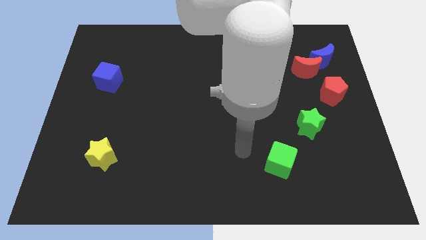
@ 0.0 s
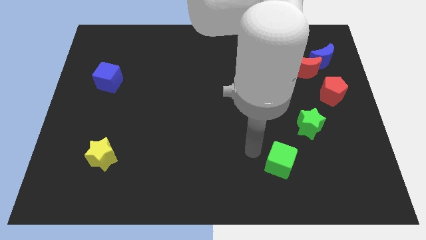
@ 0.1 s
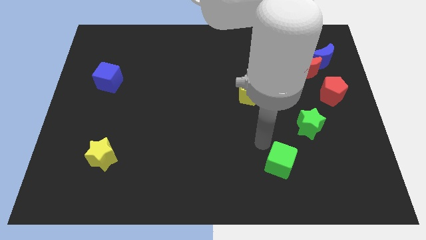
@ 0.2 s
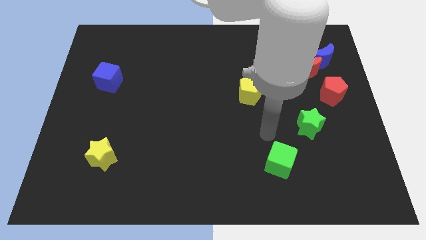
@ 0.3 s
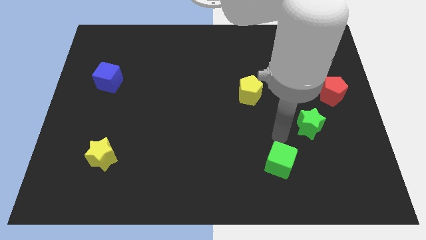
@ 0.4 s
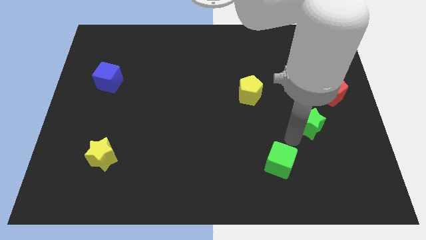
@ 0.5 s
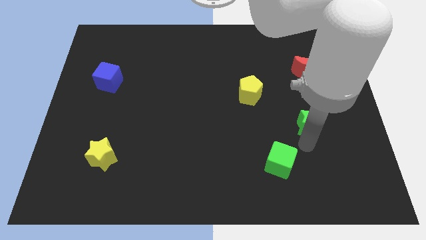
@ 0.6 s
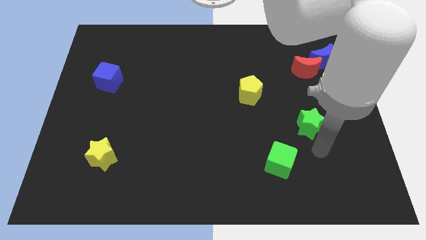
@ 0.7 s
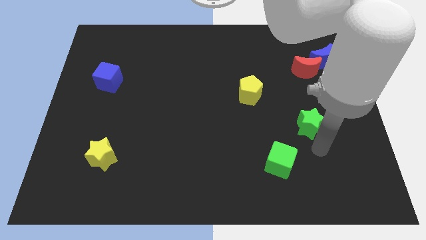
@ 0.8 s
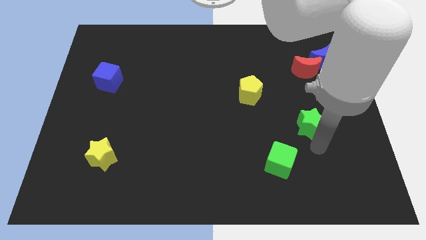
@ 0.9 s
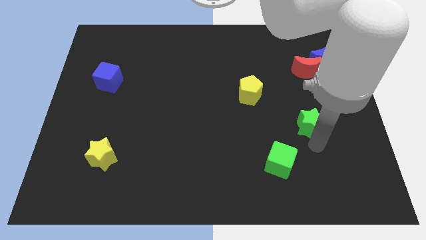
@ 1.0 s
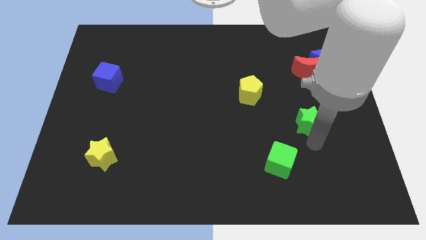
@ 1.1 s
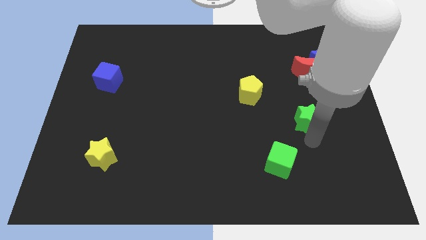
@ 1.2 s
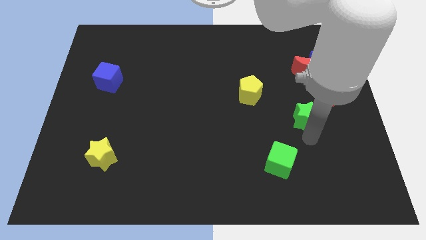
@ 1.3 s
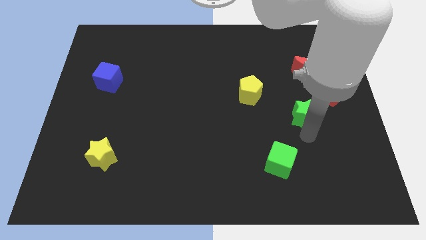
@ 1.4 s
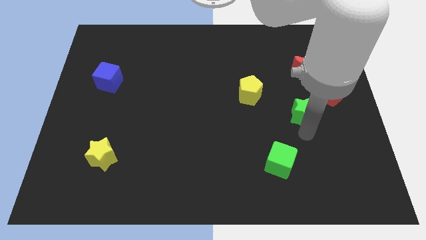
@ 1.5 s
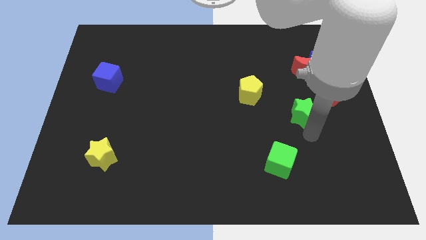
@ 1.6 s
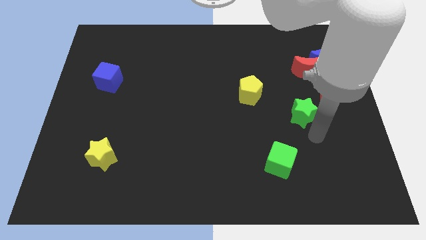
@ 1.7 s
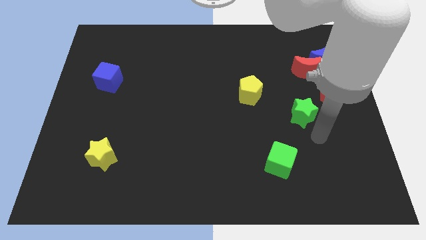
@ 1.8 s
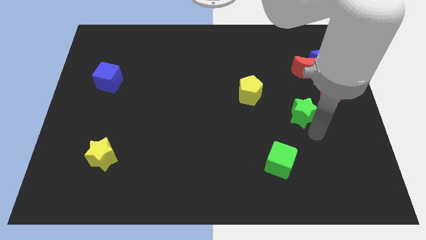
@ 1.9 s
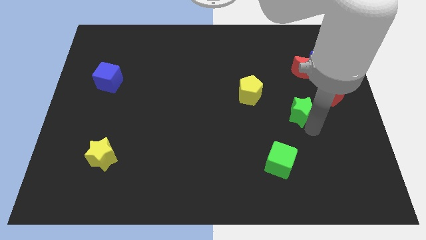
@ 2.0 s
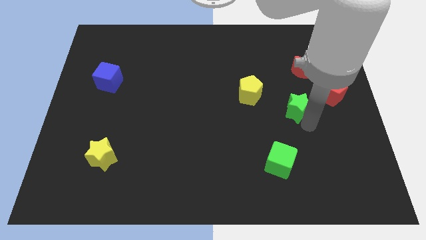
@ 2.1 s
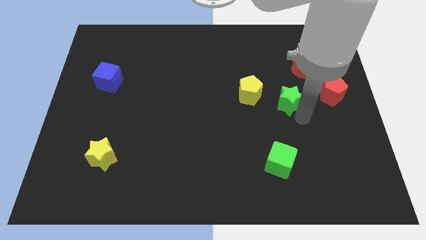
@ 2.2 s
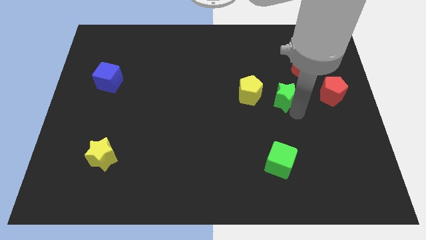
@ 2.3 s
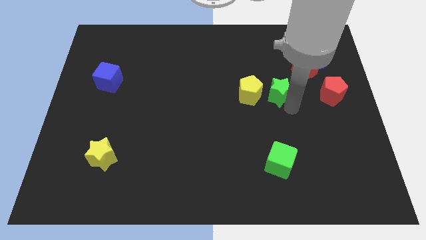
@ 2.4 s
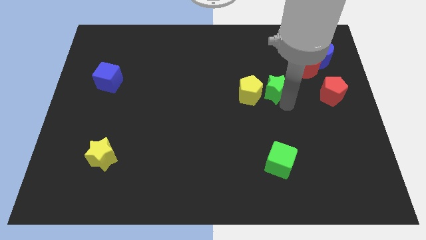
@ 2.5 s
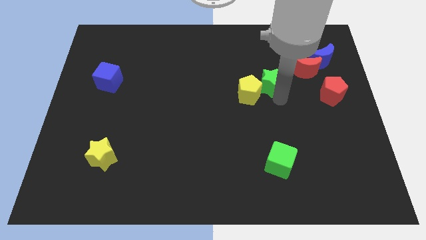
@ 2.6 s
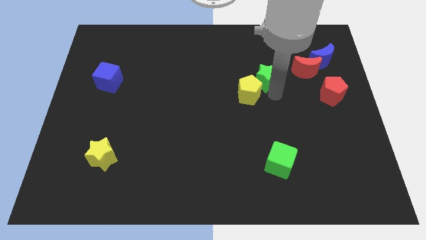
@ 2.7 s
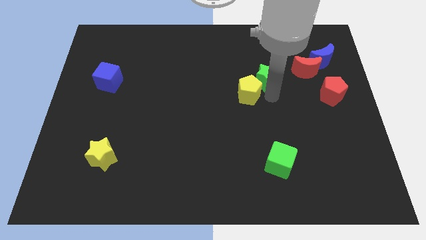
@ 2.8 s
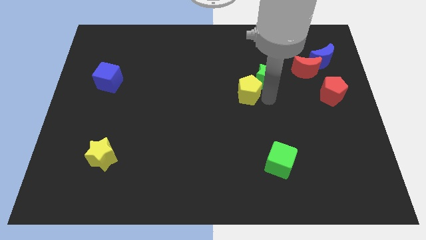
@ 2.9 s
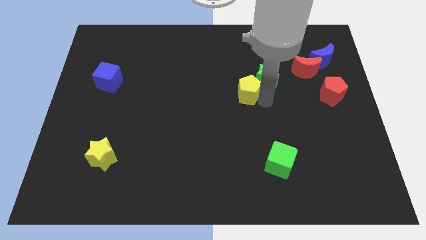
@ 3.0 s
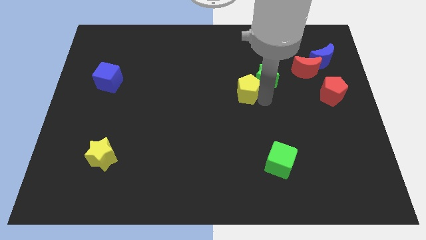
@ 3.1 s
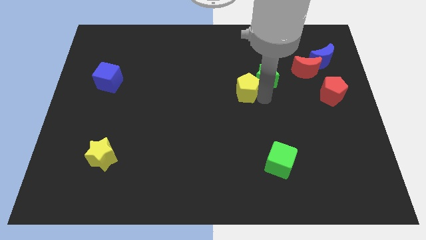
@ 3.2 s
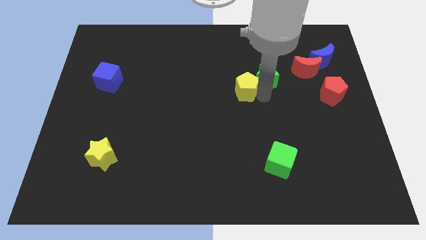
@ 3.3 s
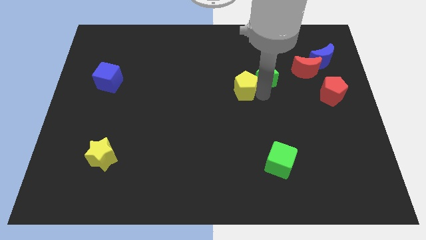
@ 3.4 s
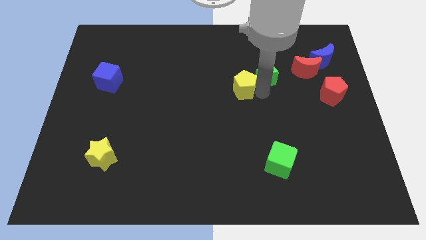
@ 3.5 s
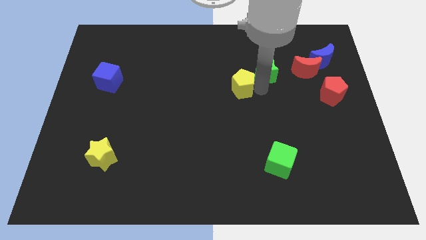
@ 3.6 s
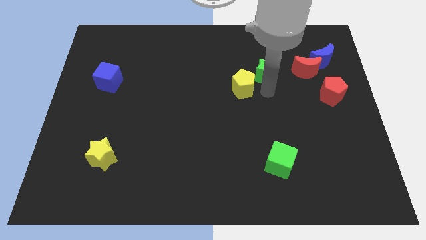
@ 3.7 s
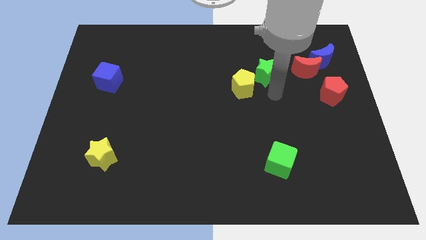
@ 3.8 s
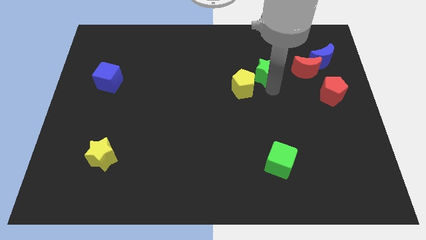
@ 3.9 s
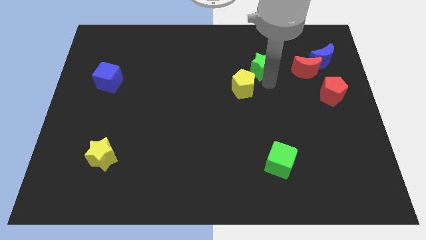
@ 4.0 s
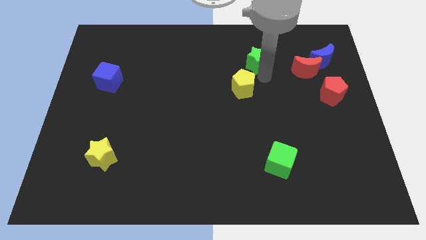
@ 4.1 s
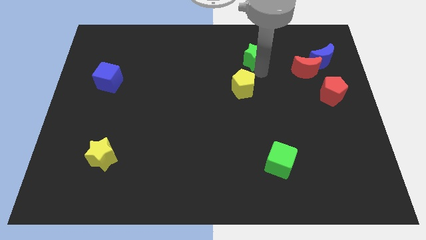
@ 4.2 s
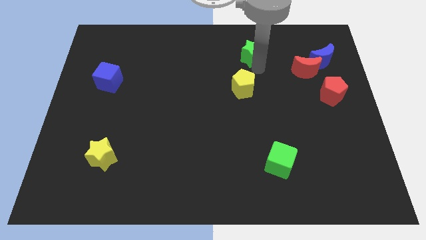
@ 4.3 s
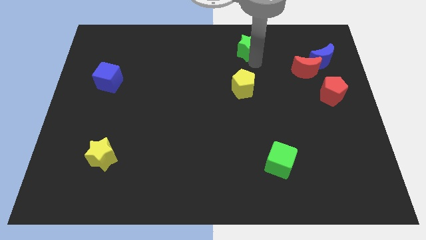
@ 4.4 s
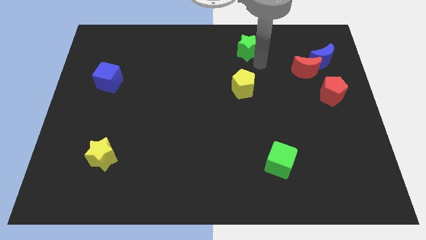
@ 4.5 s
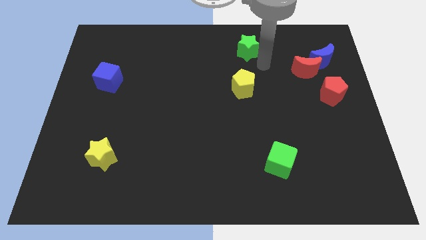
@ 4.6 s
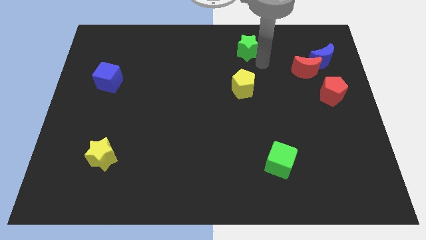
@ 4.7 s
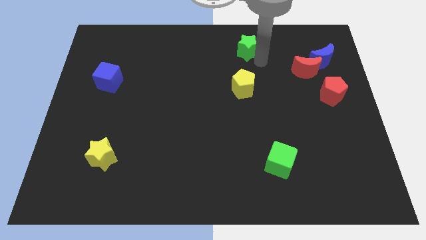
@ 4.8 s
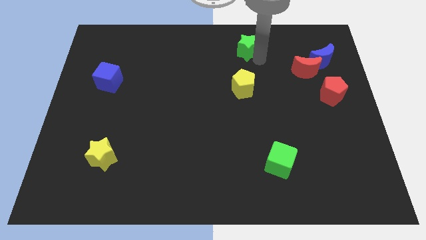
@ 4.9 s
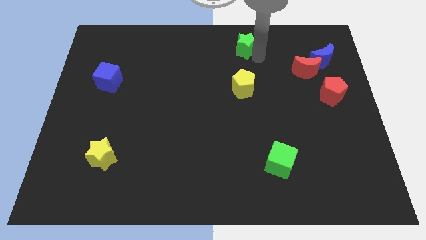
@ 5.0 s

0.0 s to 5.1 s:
slide the green star to the towards your base

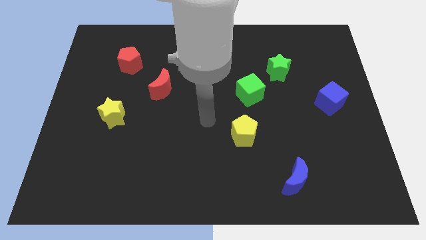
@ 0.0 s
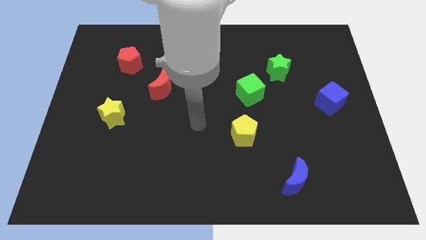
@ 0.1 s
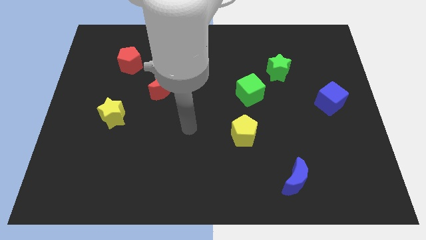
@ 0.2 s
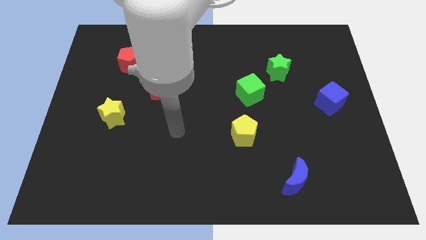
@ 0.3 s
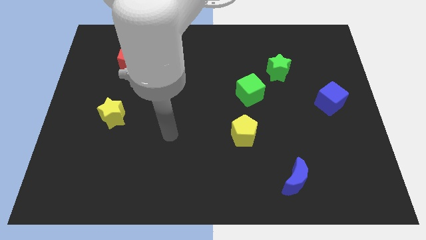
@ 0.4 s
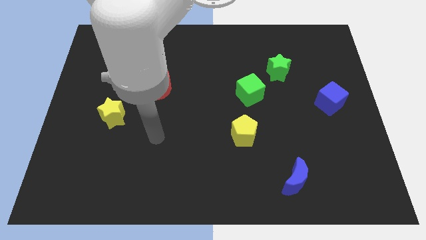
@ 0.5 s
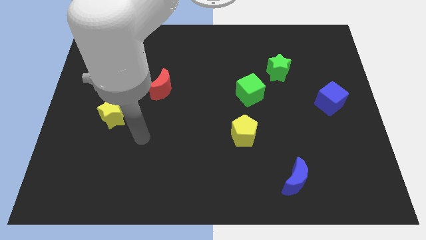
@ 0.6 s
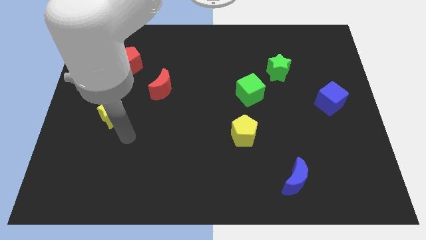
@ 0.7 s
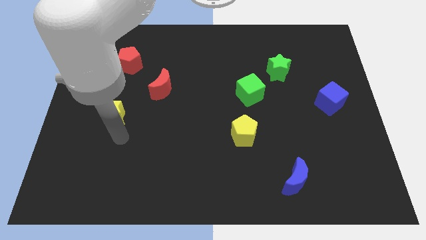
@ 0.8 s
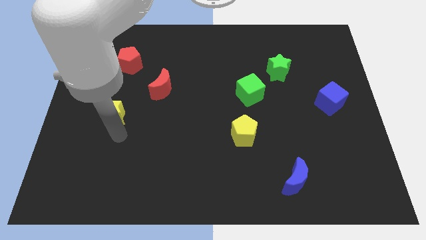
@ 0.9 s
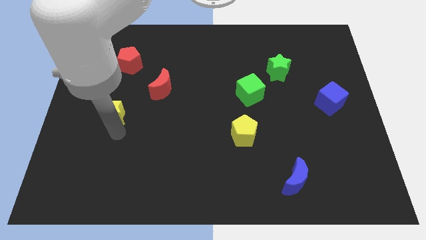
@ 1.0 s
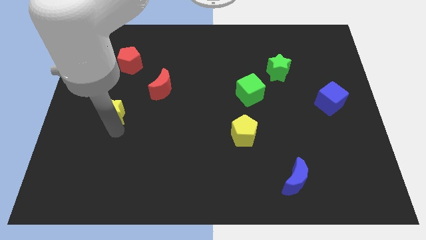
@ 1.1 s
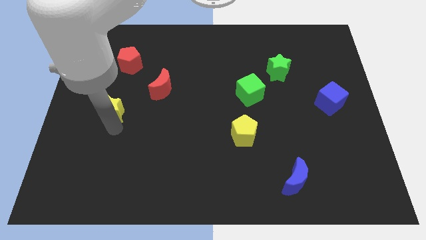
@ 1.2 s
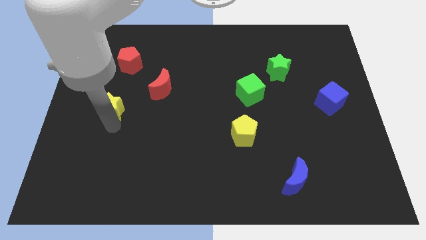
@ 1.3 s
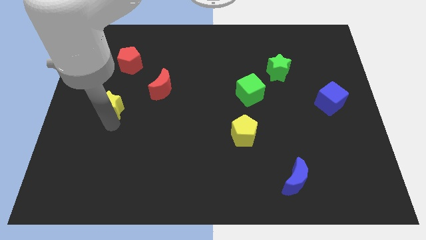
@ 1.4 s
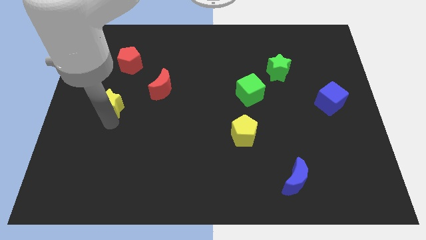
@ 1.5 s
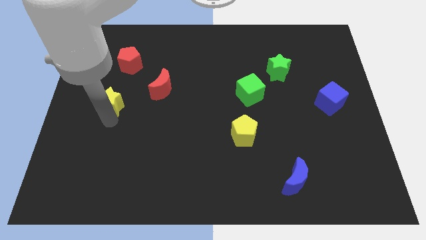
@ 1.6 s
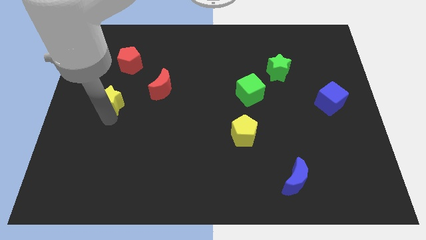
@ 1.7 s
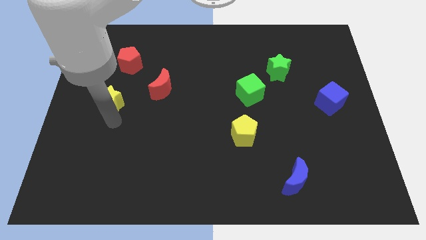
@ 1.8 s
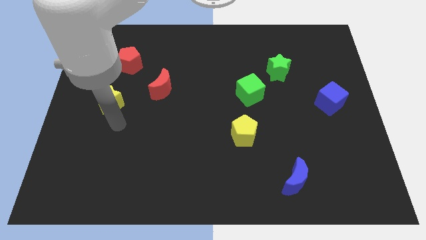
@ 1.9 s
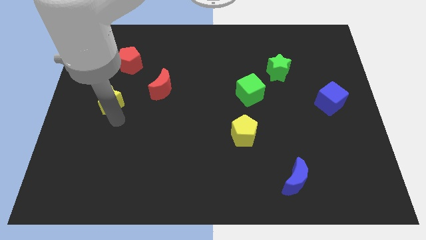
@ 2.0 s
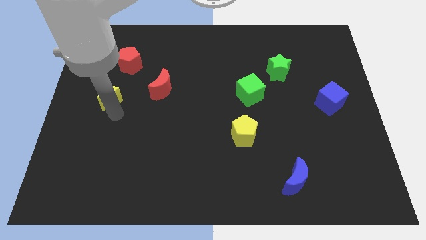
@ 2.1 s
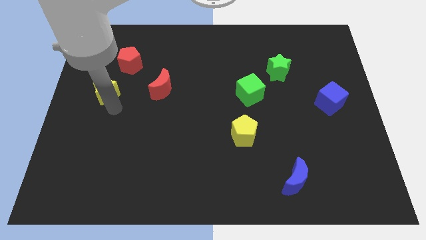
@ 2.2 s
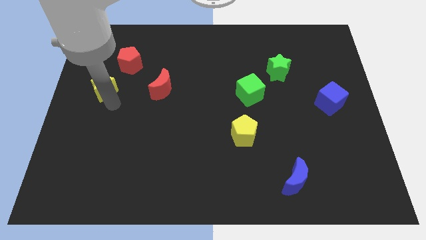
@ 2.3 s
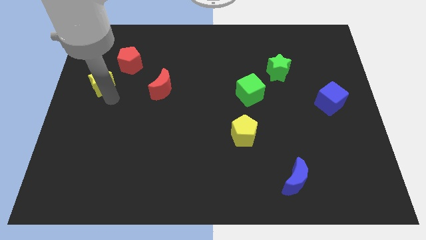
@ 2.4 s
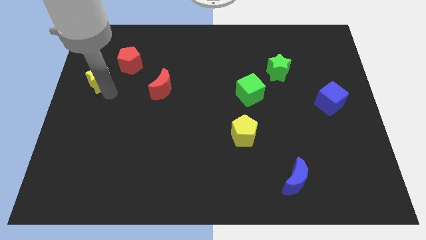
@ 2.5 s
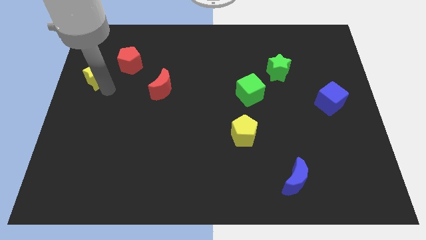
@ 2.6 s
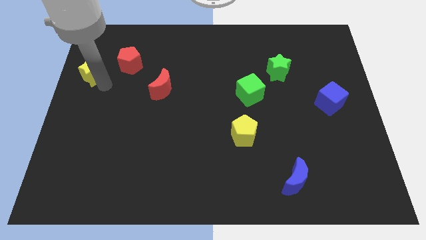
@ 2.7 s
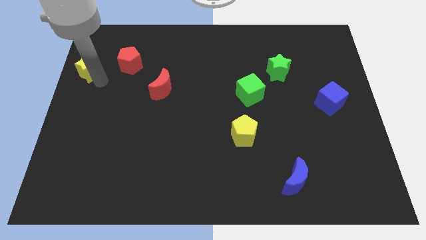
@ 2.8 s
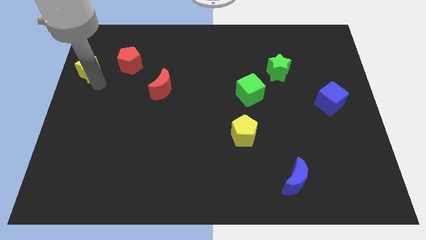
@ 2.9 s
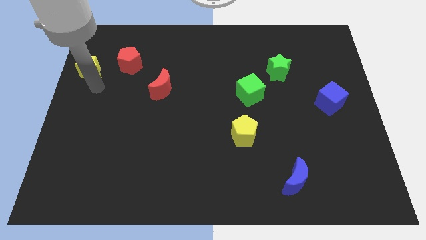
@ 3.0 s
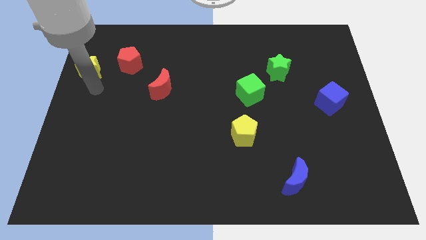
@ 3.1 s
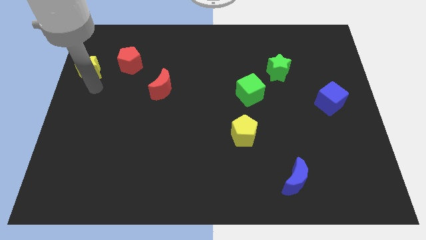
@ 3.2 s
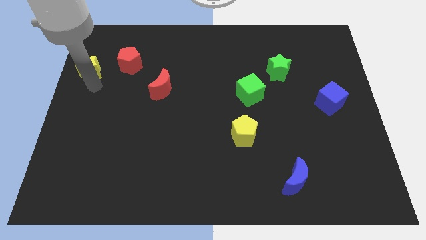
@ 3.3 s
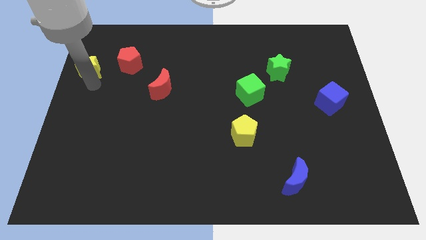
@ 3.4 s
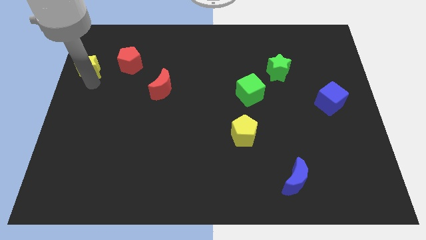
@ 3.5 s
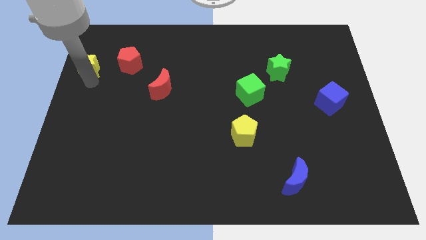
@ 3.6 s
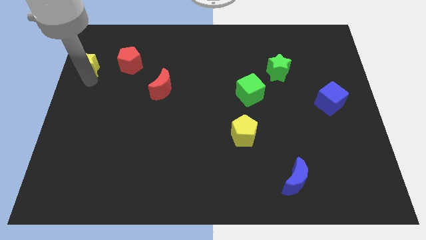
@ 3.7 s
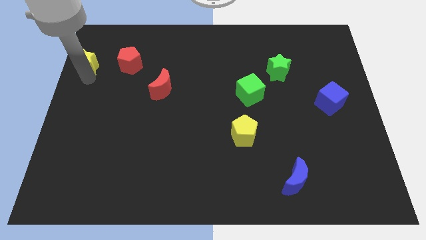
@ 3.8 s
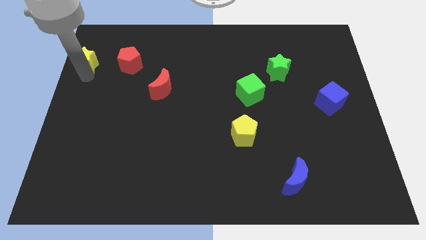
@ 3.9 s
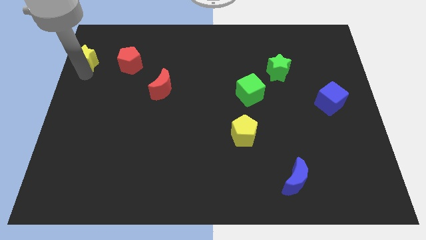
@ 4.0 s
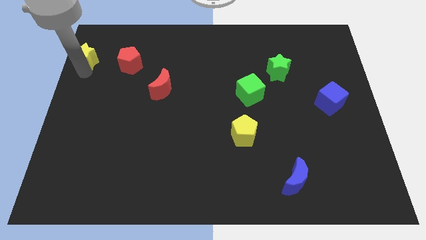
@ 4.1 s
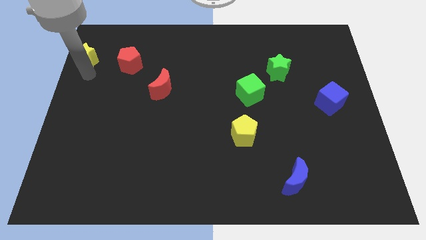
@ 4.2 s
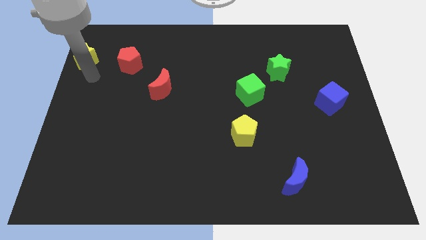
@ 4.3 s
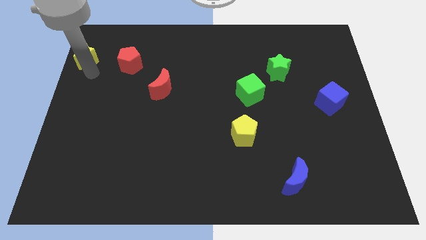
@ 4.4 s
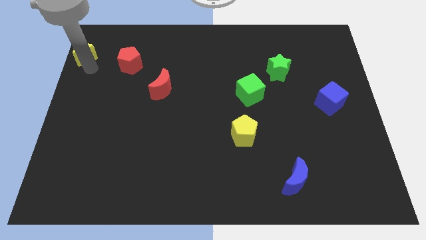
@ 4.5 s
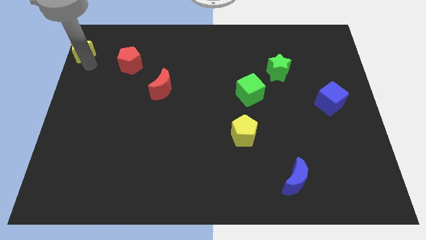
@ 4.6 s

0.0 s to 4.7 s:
move the yellow star to the upper left corner
